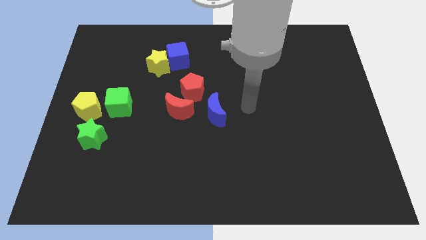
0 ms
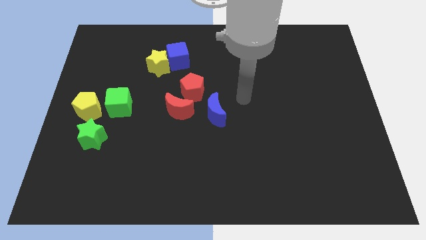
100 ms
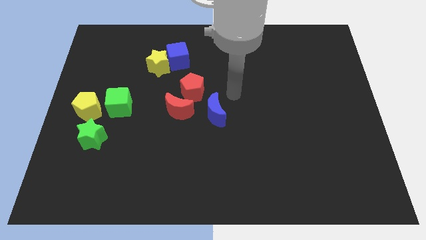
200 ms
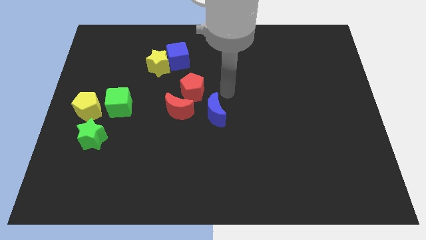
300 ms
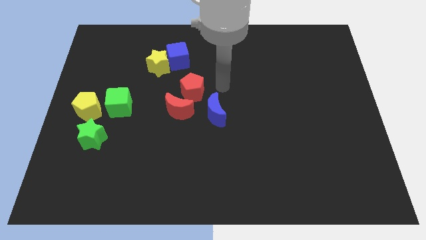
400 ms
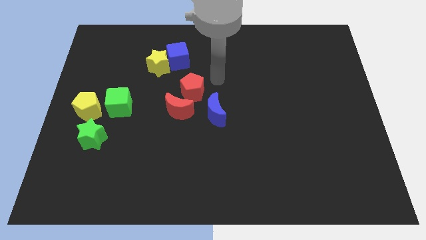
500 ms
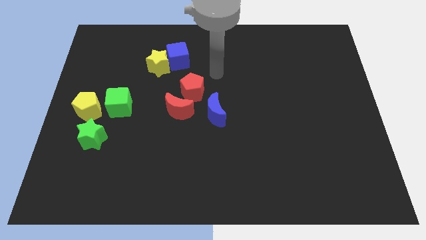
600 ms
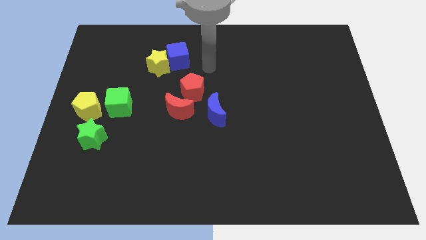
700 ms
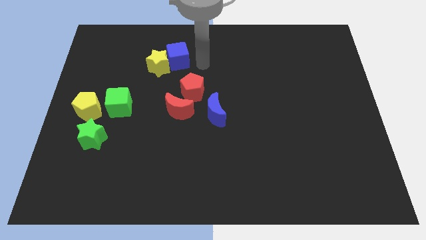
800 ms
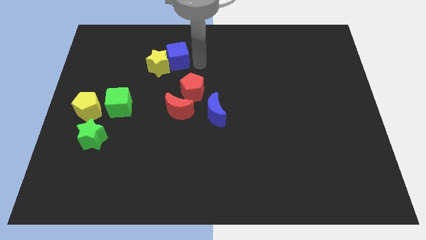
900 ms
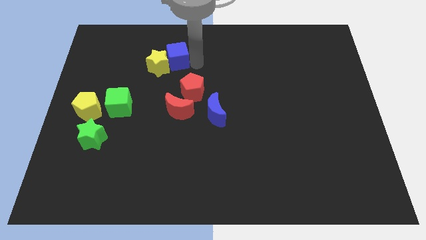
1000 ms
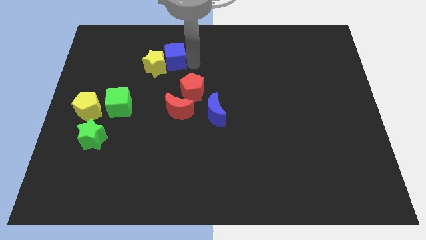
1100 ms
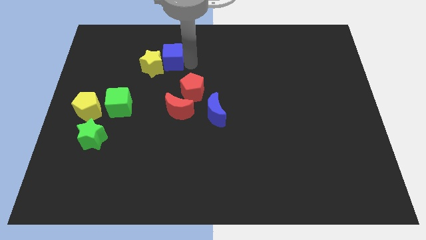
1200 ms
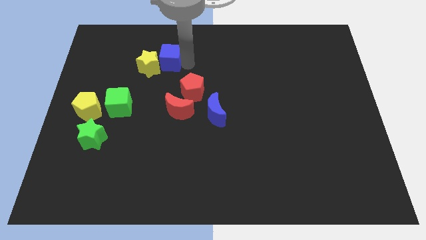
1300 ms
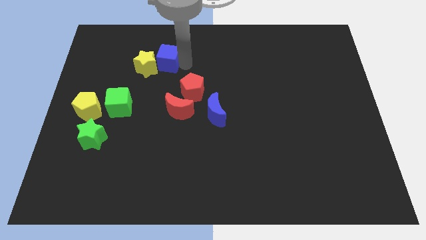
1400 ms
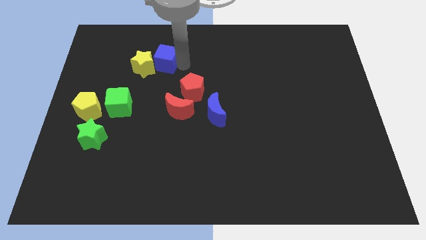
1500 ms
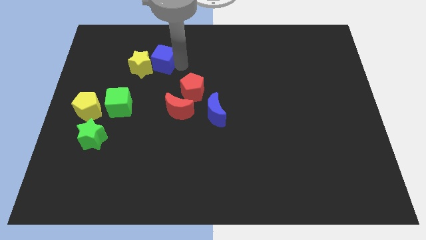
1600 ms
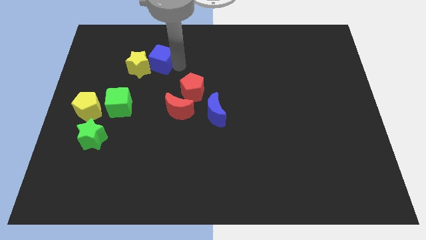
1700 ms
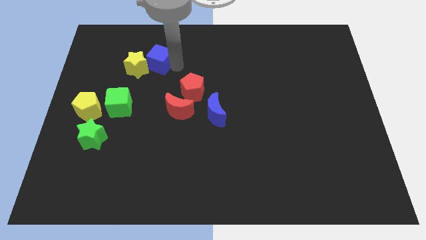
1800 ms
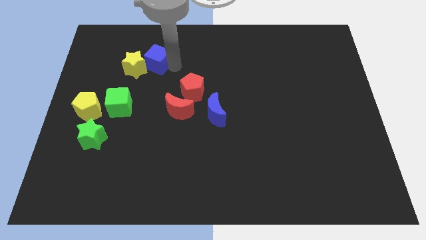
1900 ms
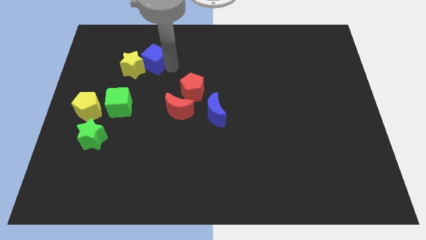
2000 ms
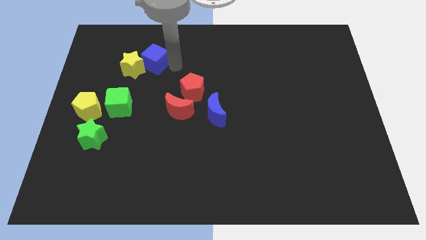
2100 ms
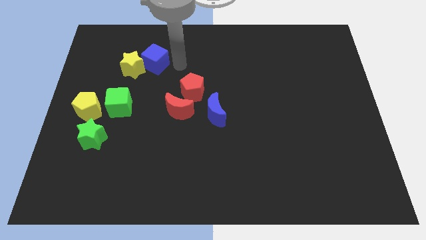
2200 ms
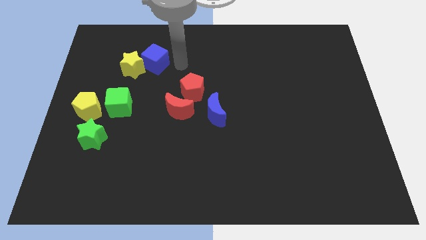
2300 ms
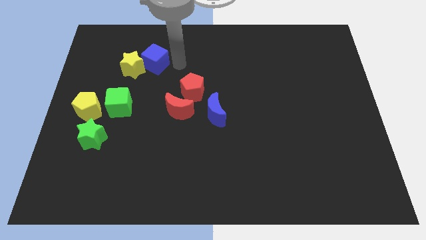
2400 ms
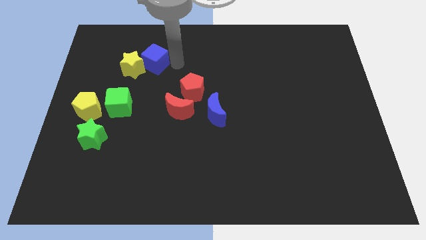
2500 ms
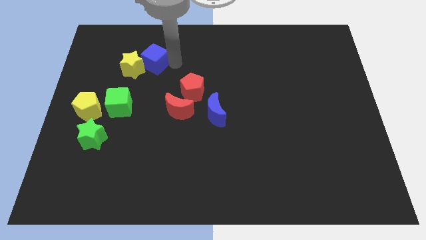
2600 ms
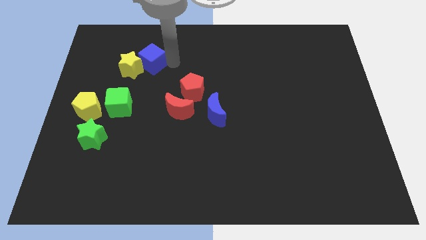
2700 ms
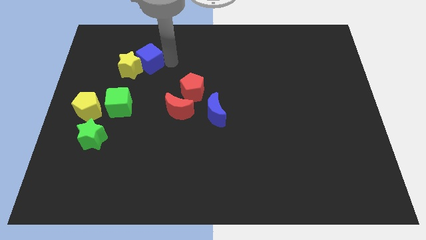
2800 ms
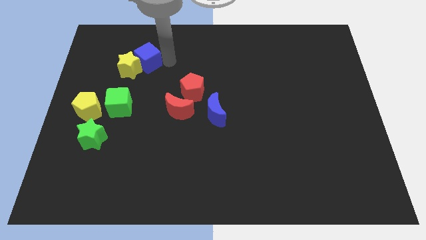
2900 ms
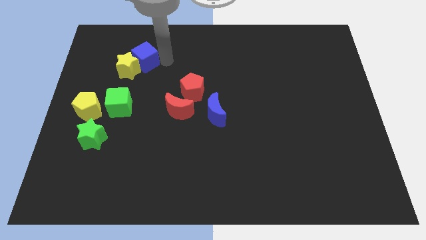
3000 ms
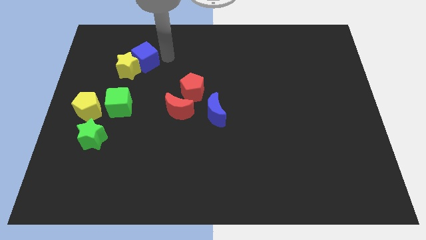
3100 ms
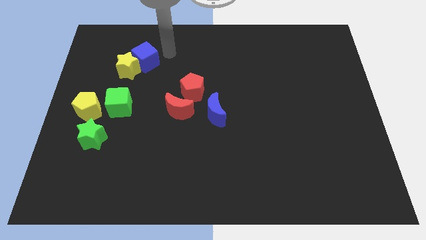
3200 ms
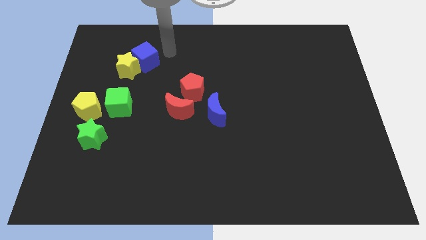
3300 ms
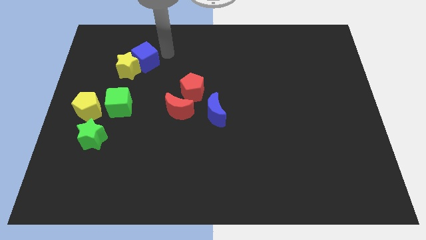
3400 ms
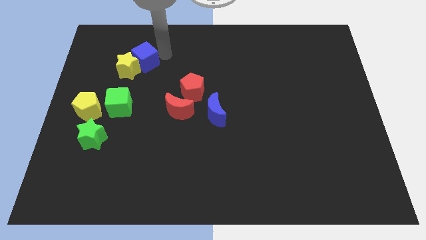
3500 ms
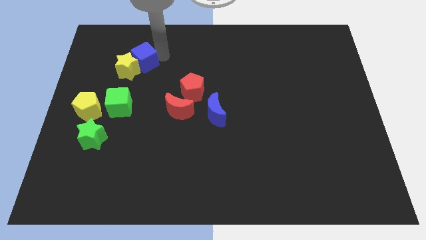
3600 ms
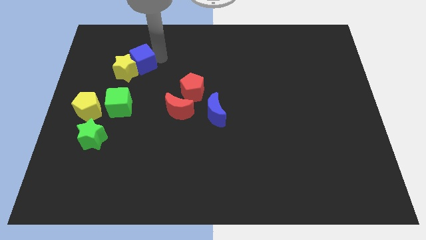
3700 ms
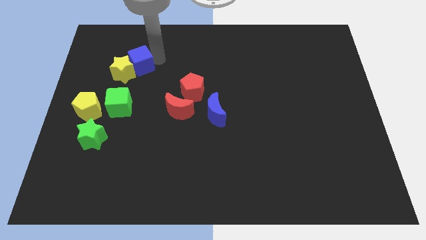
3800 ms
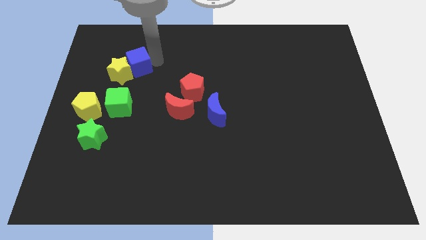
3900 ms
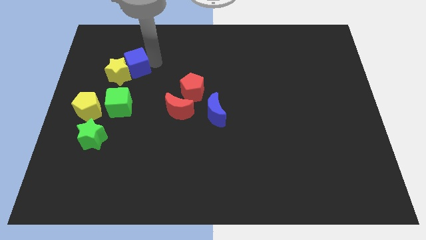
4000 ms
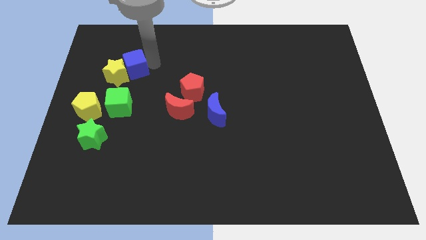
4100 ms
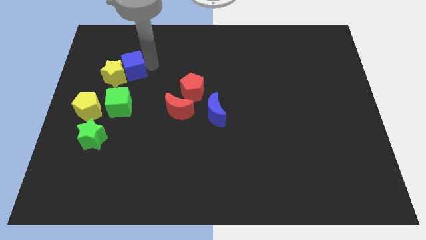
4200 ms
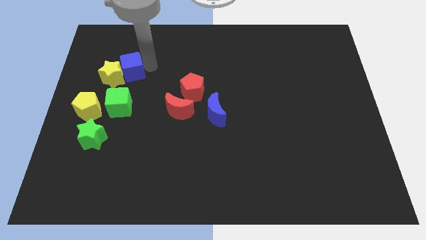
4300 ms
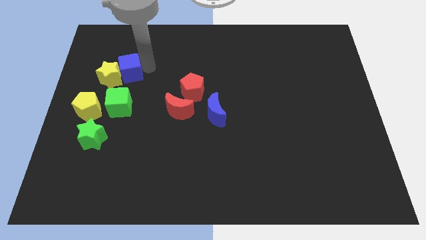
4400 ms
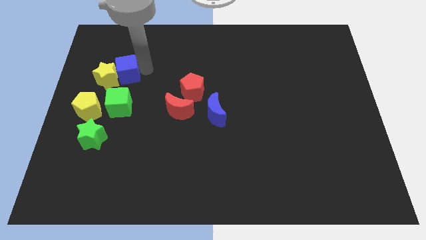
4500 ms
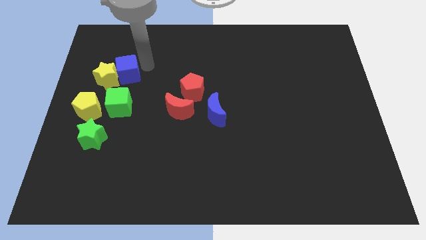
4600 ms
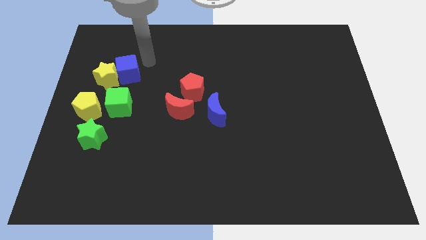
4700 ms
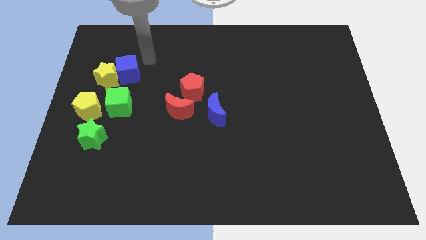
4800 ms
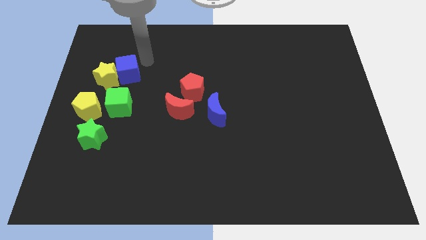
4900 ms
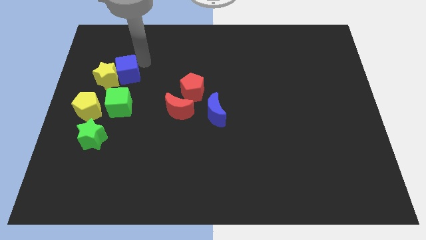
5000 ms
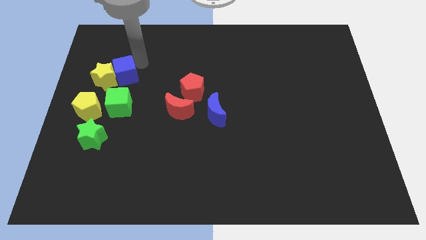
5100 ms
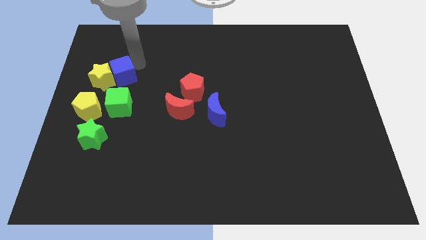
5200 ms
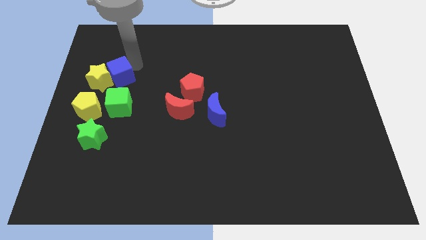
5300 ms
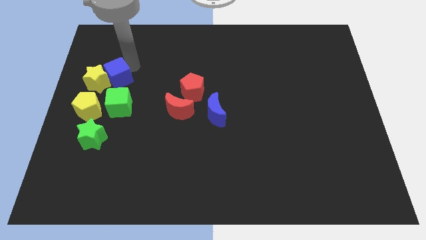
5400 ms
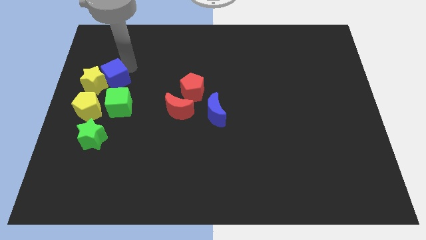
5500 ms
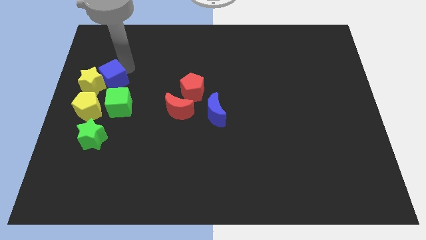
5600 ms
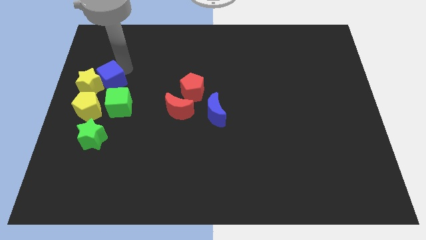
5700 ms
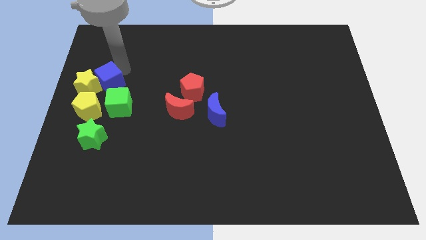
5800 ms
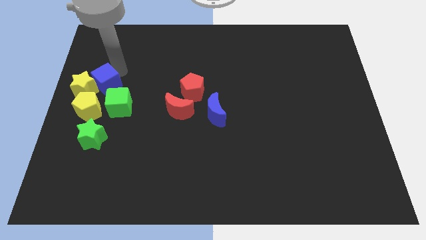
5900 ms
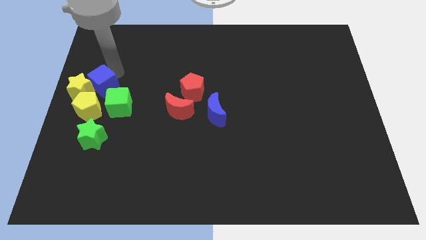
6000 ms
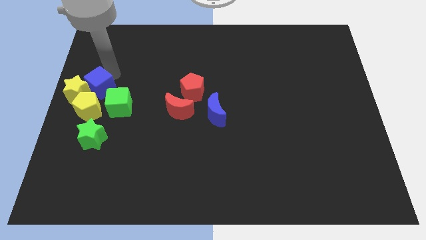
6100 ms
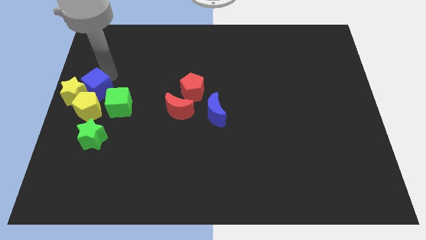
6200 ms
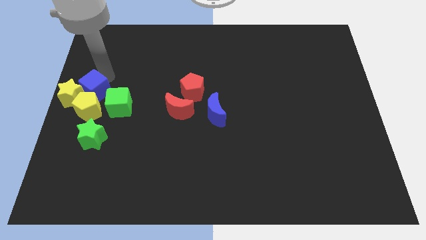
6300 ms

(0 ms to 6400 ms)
slide the blue cube next to the yellow pentagon

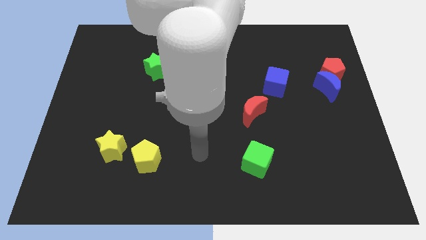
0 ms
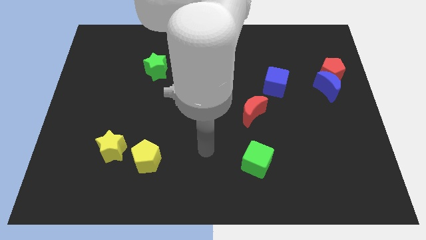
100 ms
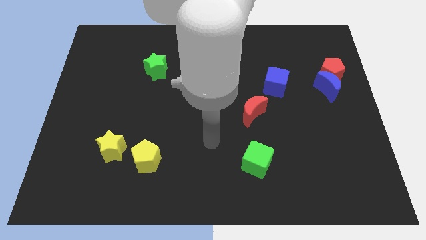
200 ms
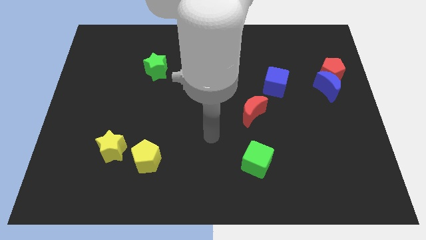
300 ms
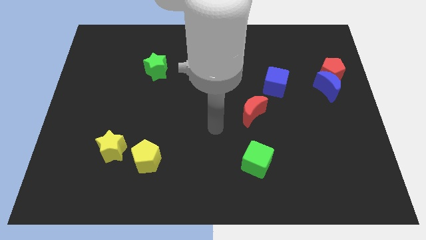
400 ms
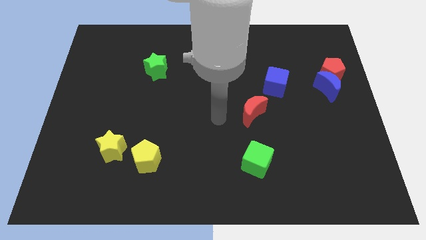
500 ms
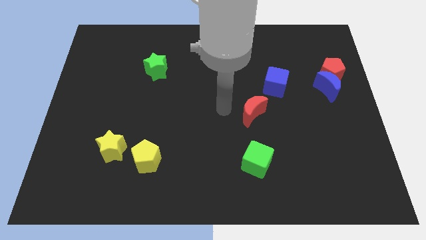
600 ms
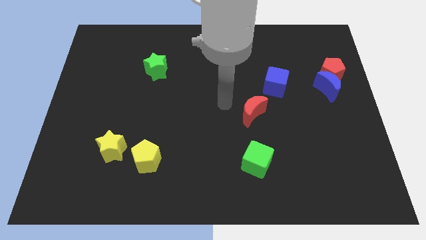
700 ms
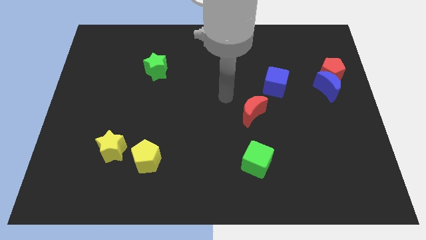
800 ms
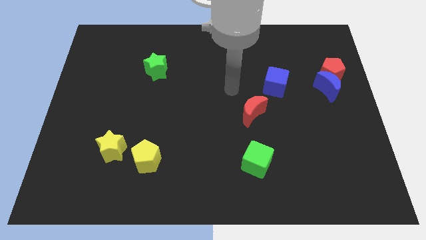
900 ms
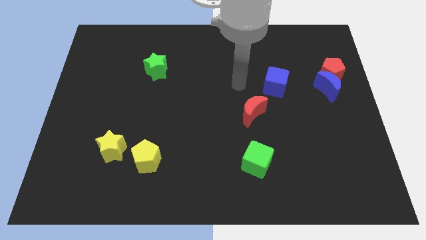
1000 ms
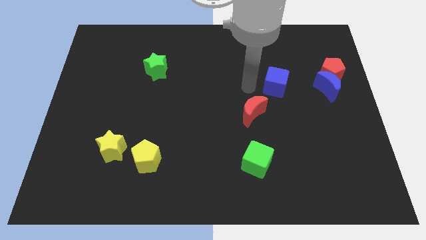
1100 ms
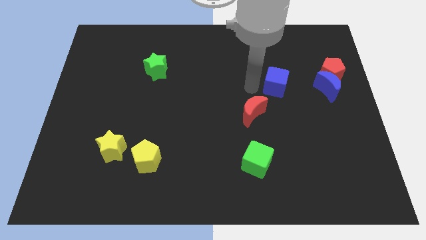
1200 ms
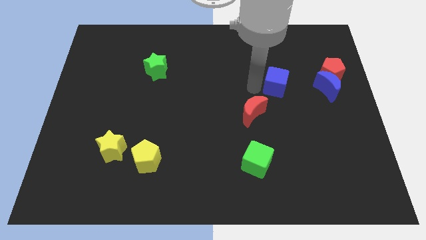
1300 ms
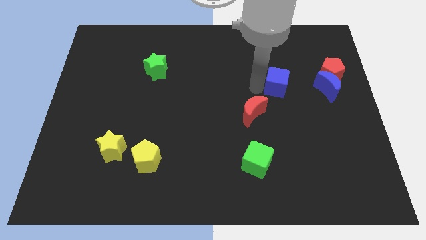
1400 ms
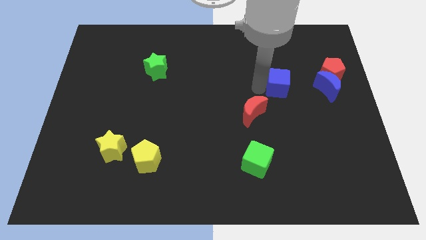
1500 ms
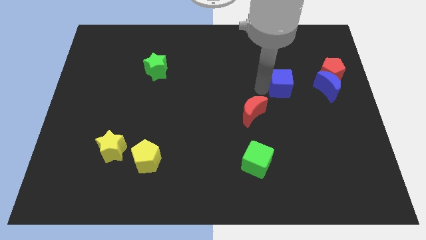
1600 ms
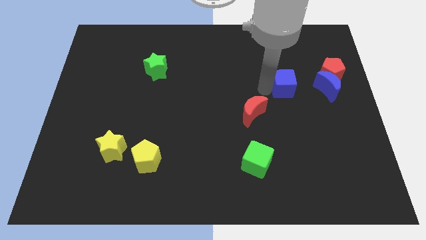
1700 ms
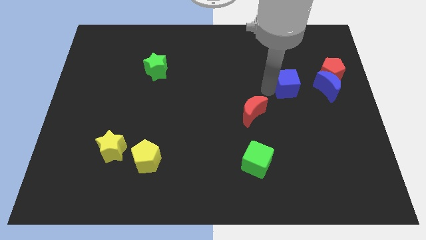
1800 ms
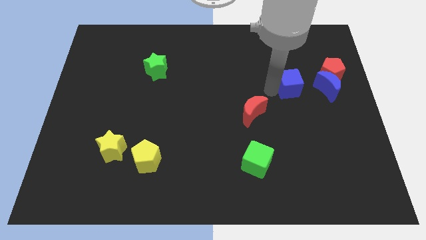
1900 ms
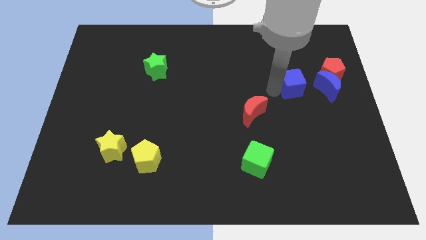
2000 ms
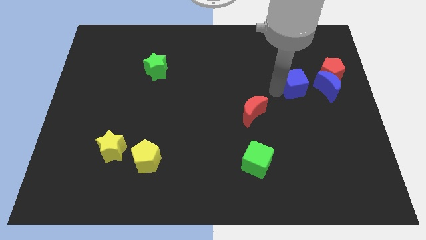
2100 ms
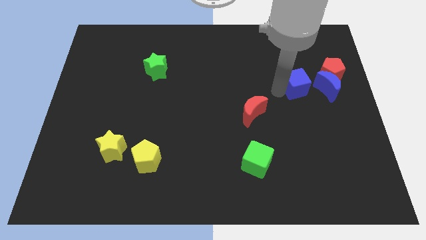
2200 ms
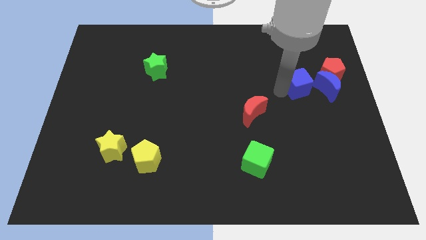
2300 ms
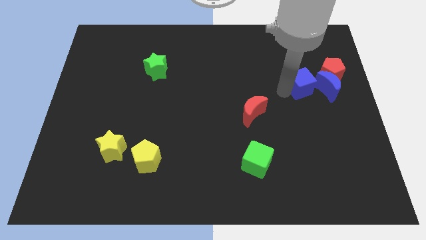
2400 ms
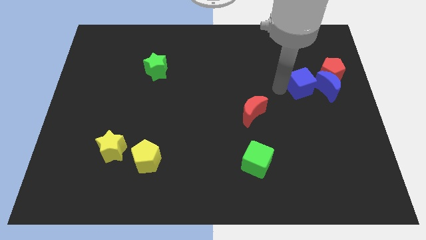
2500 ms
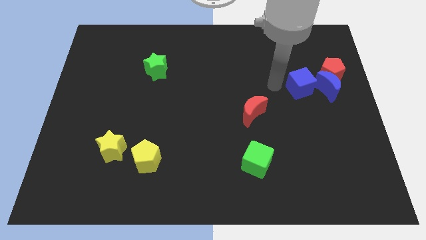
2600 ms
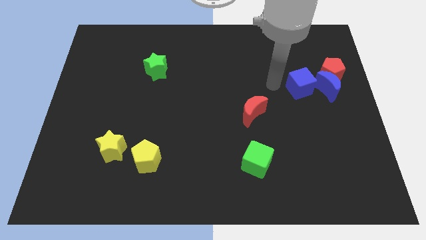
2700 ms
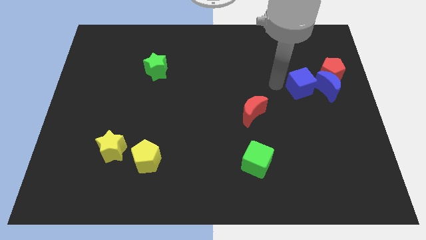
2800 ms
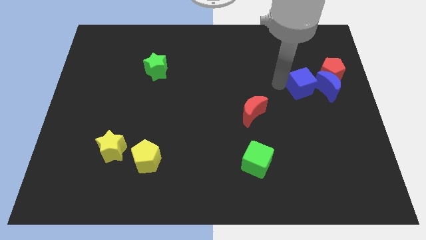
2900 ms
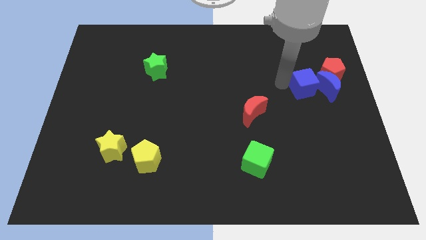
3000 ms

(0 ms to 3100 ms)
put the blue cube close to the blue moon
